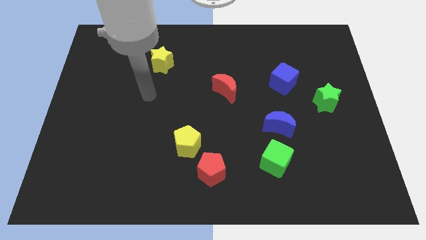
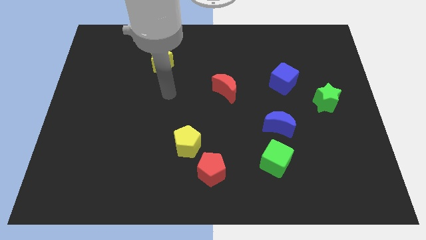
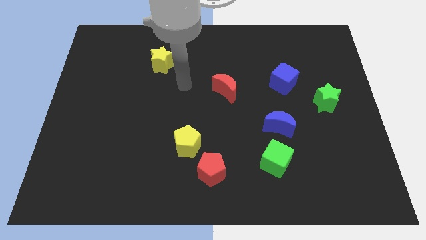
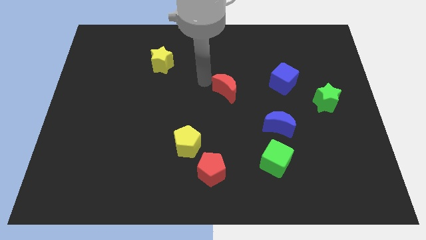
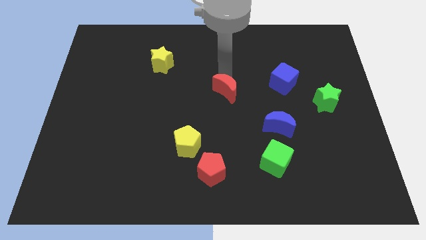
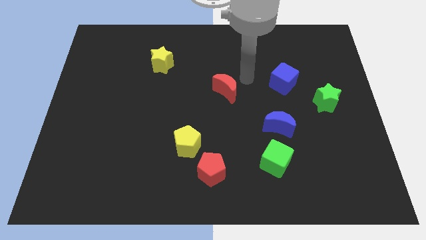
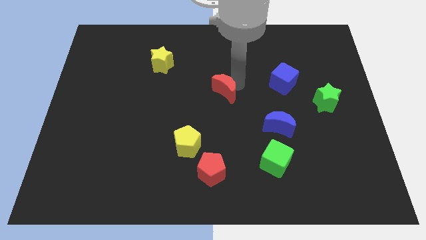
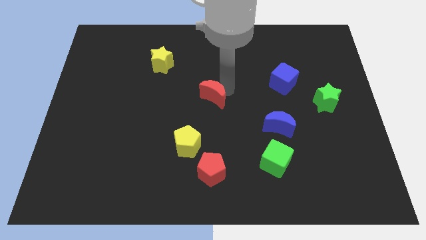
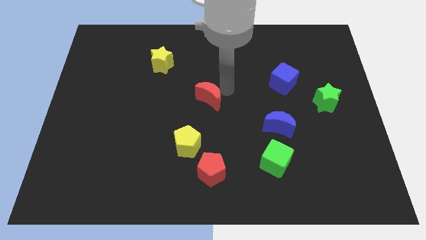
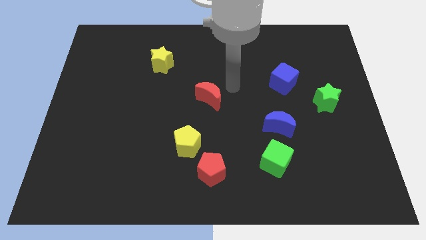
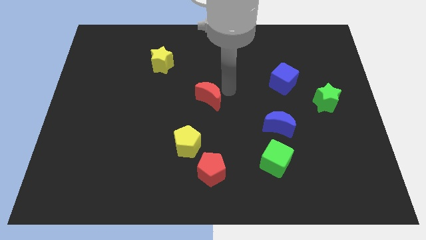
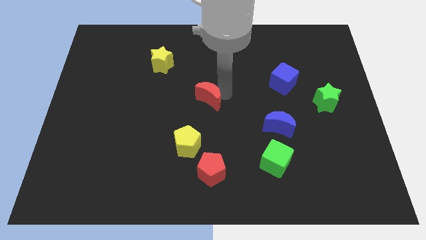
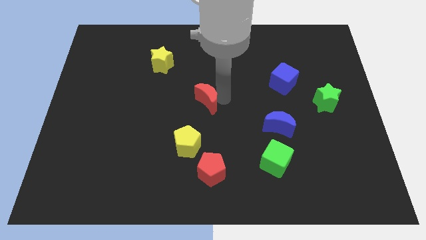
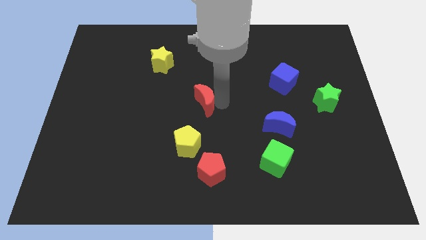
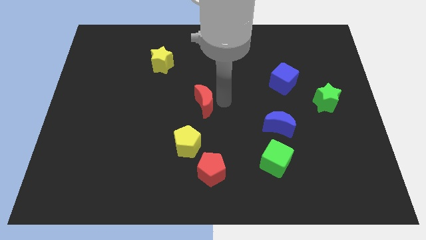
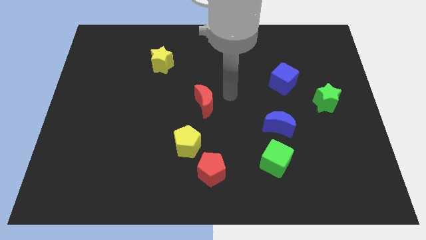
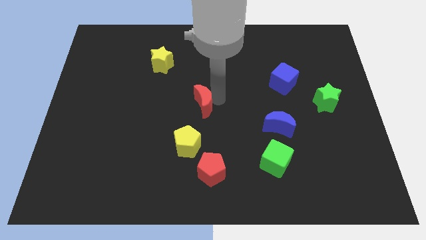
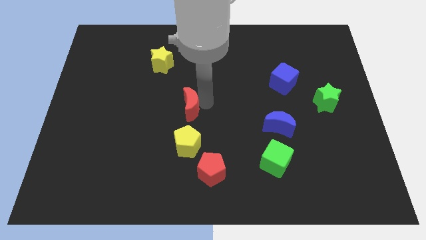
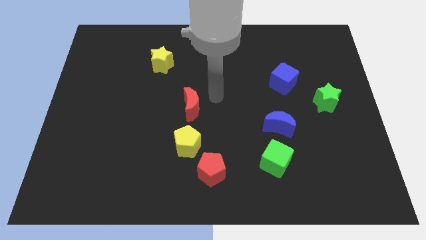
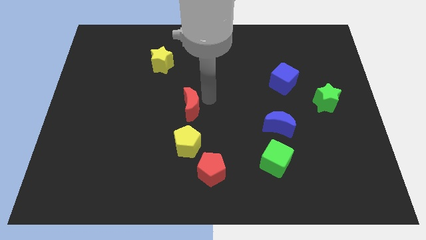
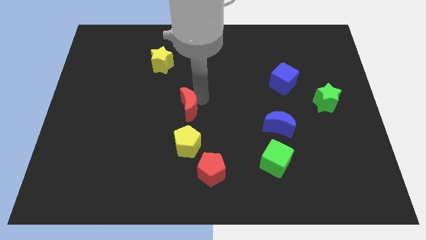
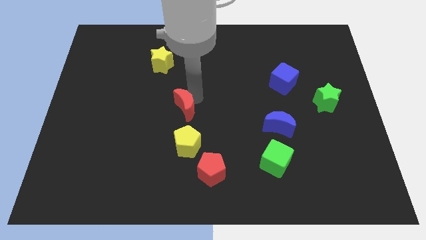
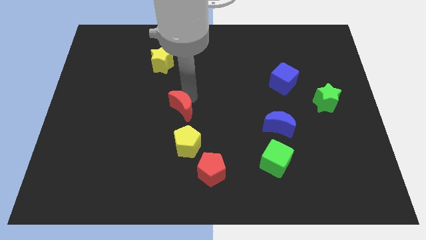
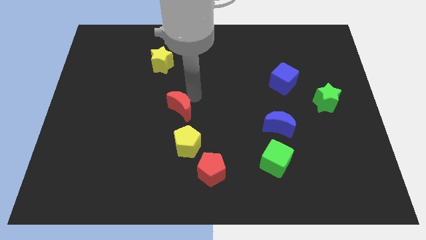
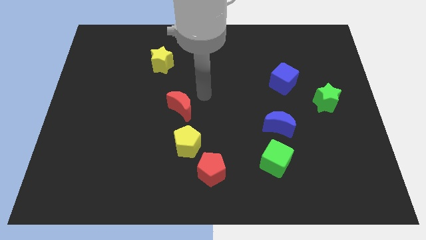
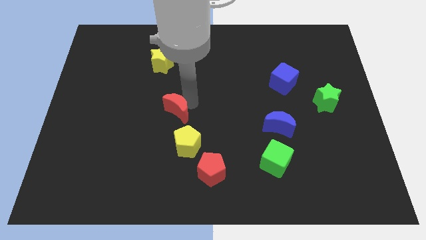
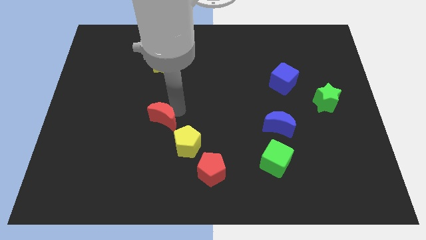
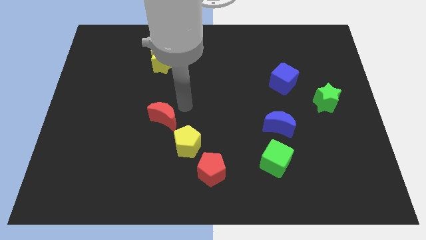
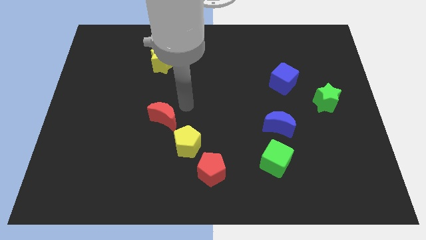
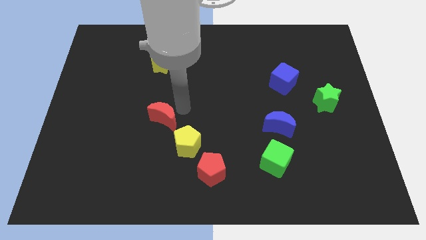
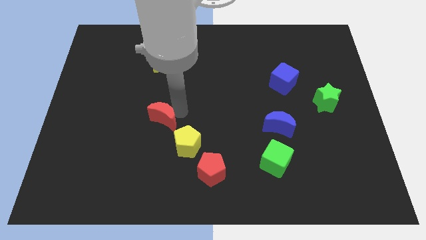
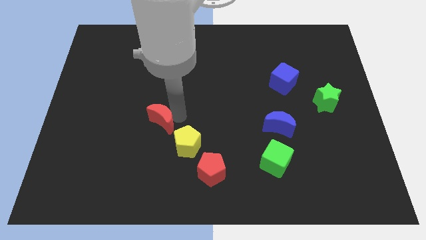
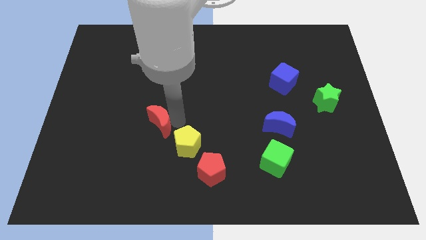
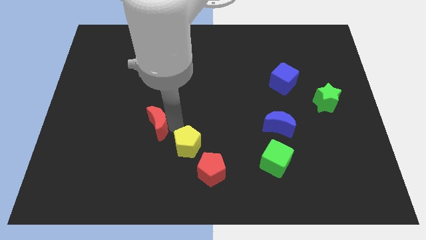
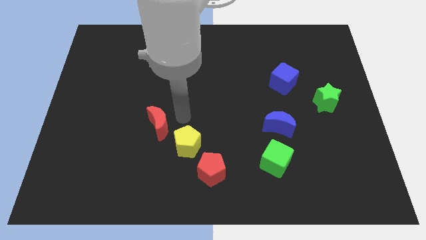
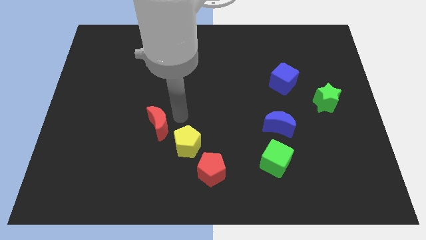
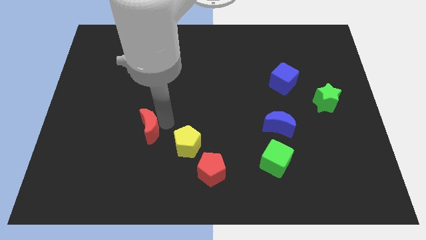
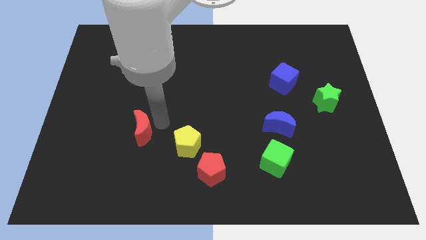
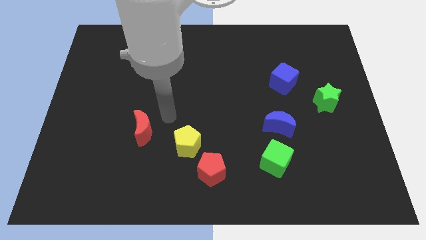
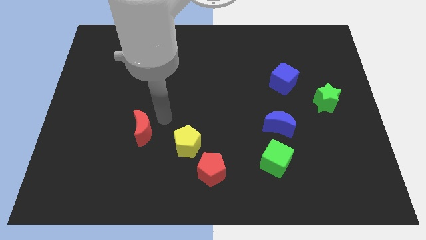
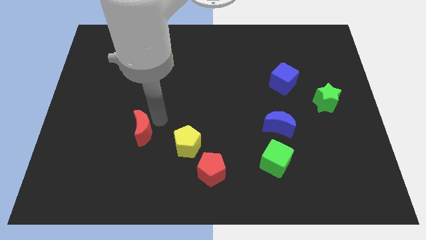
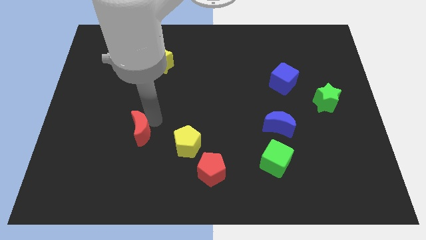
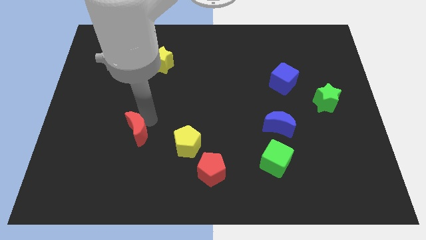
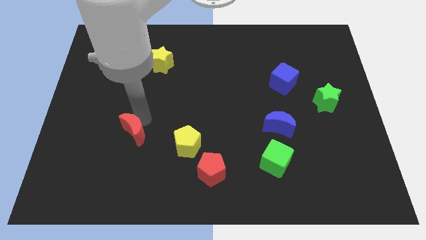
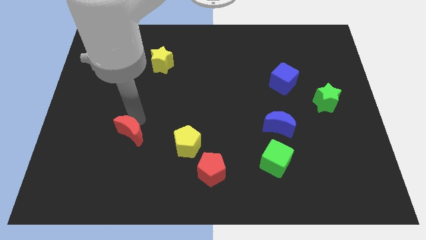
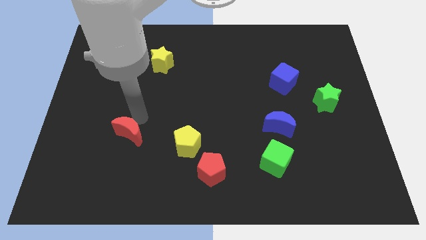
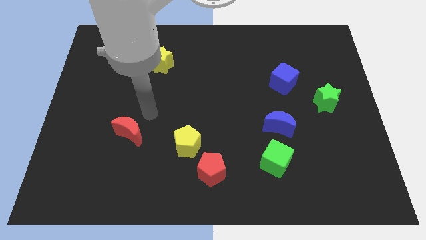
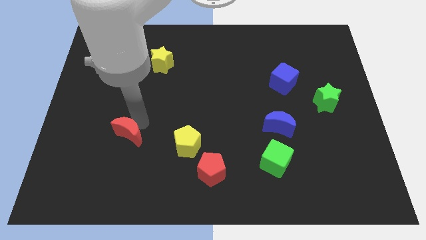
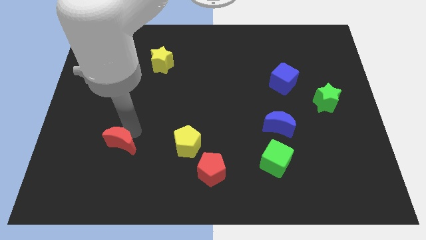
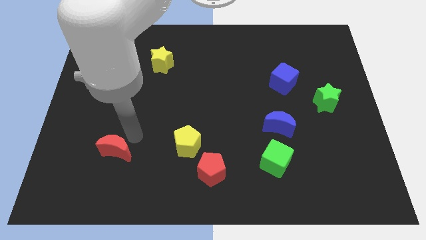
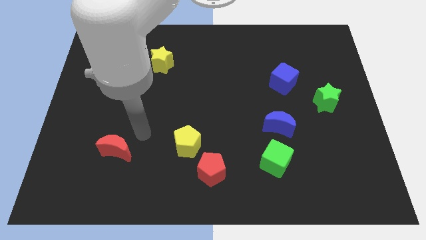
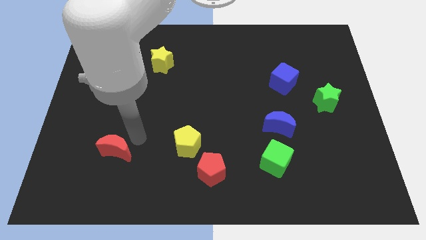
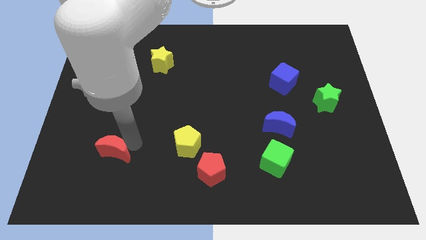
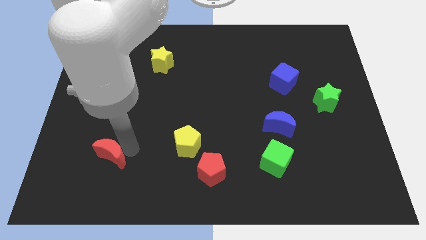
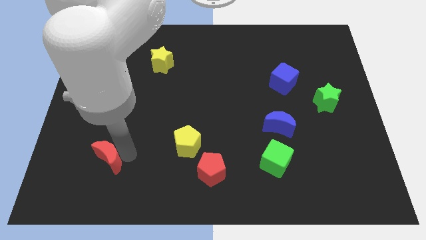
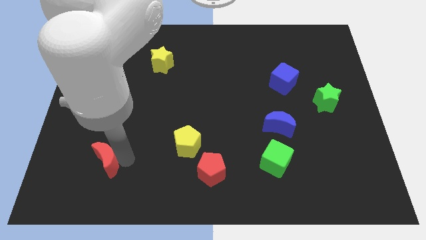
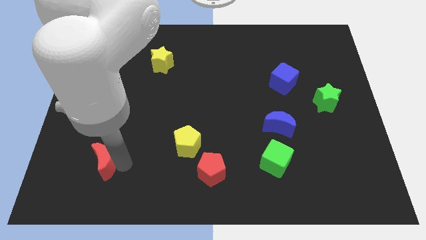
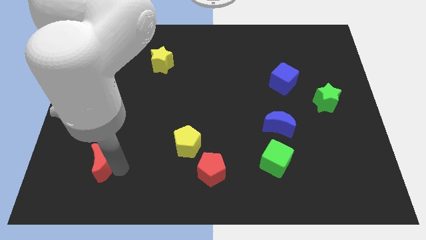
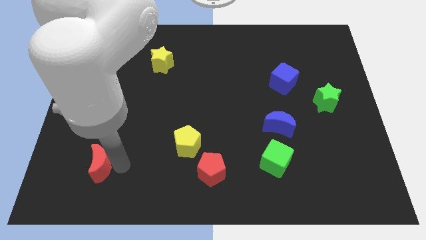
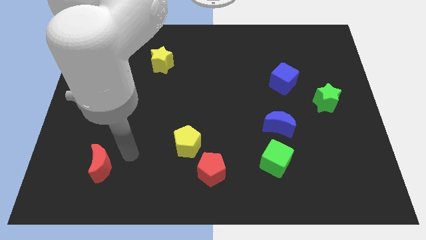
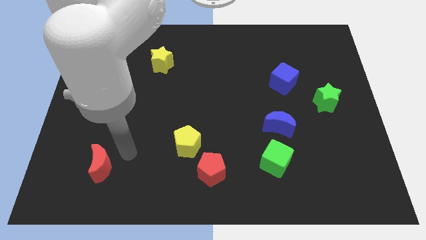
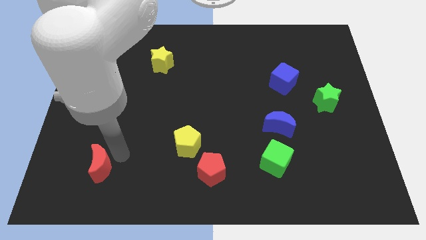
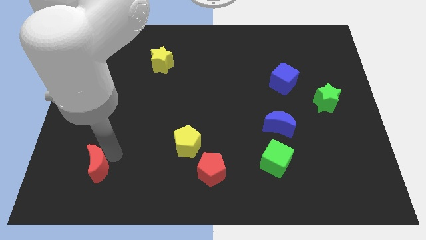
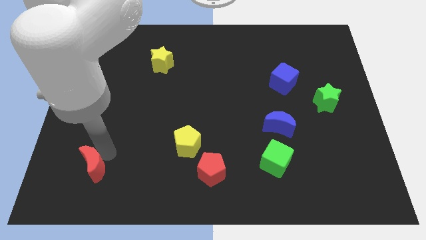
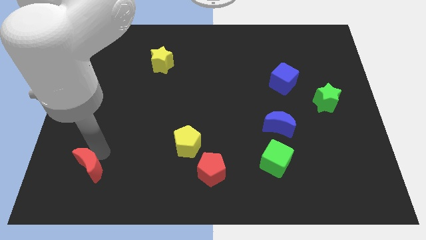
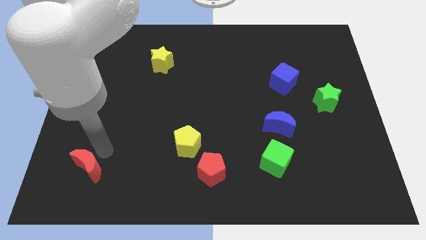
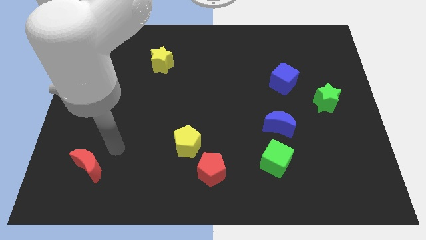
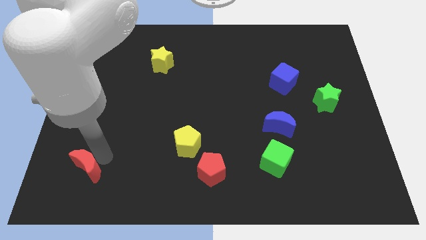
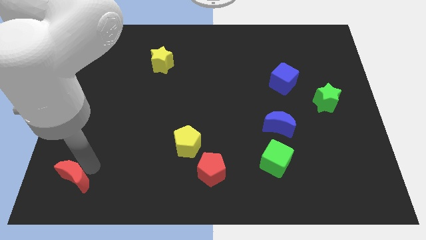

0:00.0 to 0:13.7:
put the red moon to the bottom left corner
